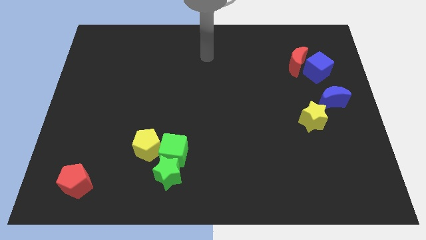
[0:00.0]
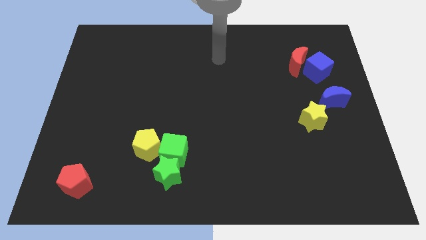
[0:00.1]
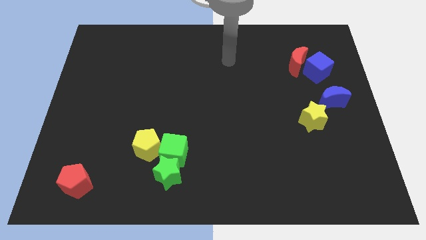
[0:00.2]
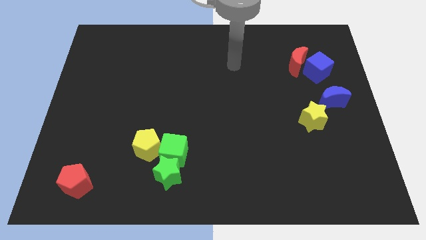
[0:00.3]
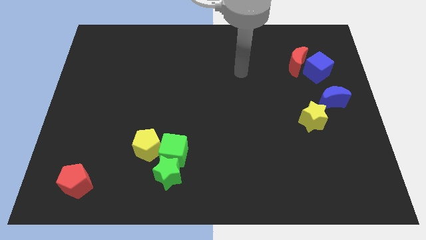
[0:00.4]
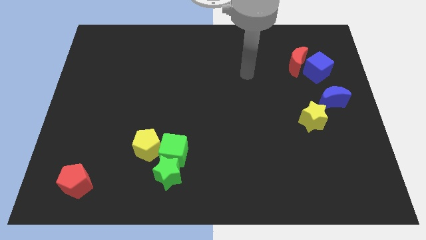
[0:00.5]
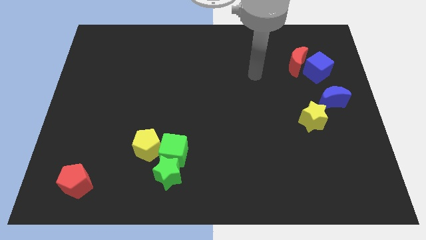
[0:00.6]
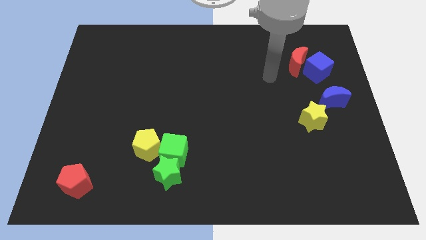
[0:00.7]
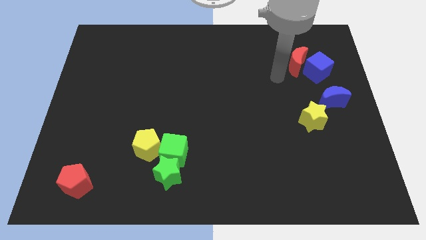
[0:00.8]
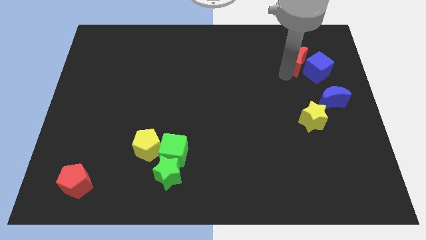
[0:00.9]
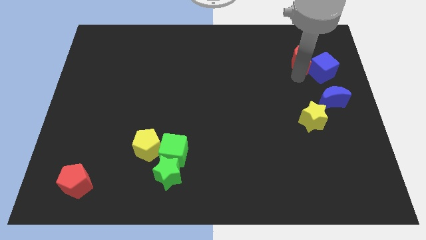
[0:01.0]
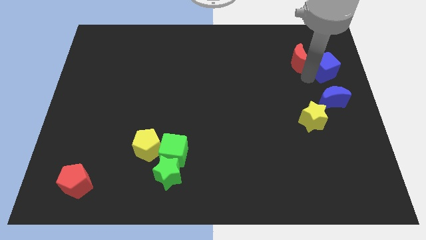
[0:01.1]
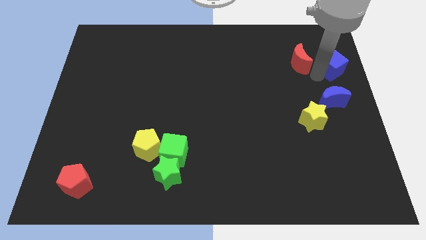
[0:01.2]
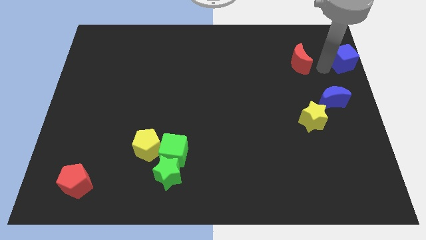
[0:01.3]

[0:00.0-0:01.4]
separate the red moon from the blue cube

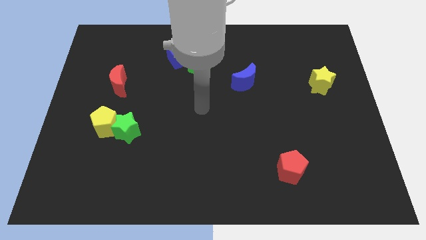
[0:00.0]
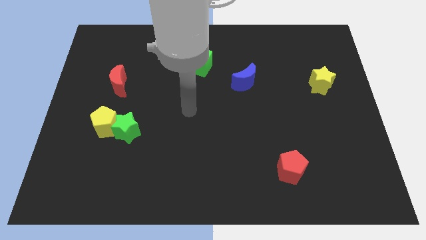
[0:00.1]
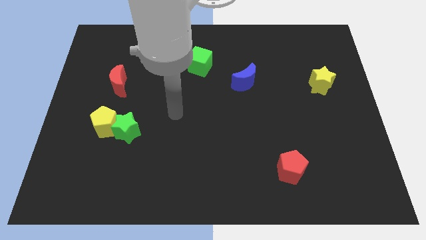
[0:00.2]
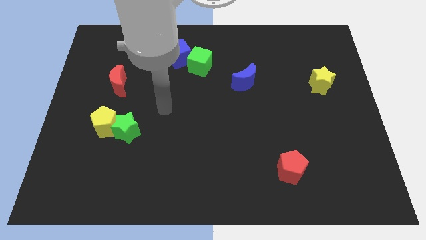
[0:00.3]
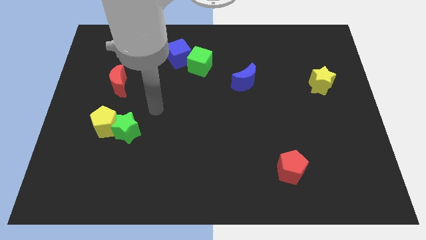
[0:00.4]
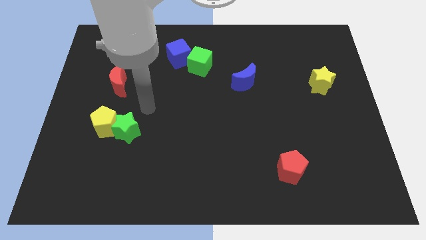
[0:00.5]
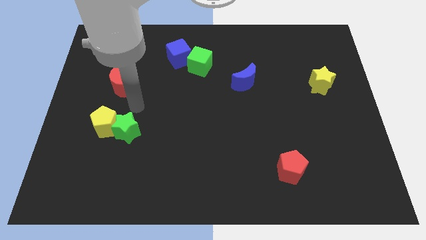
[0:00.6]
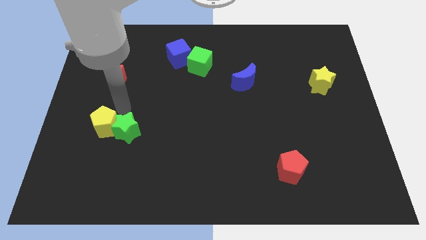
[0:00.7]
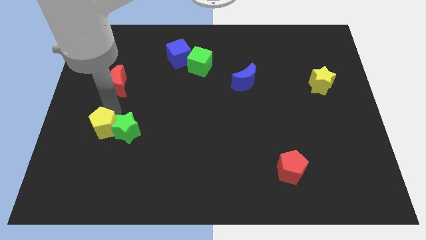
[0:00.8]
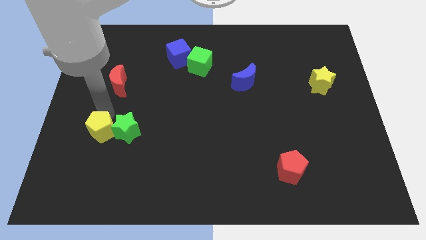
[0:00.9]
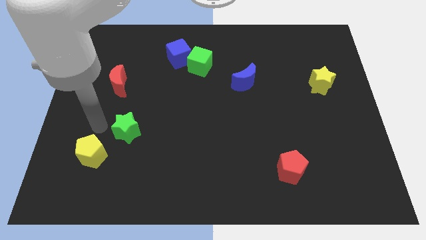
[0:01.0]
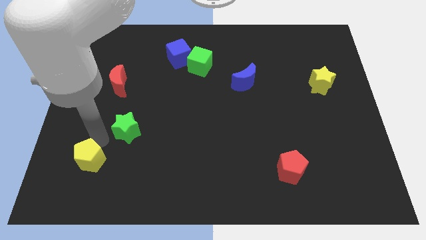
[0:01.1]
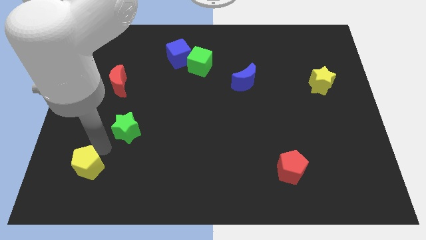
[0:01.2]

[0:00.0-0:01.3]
move the green star away from the yellow pentagon

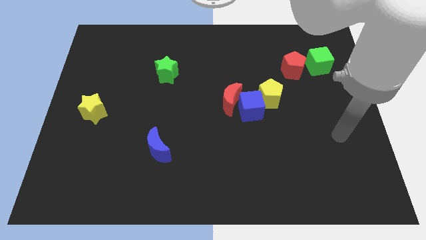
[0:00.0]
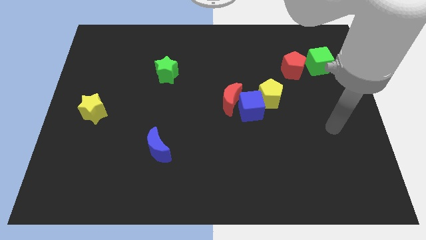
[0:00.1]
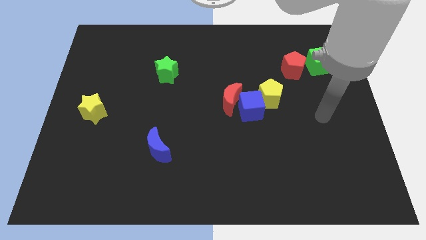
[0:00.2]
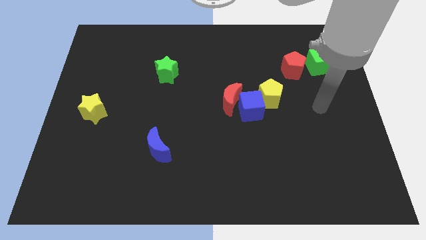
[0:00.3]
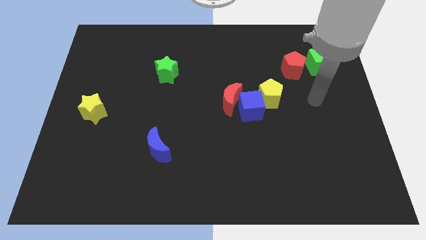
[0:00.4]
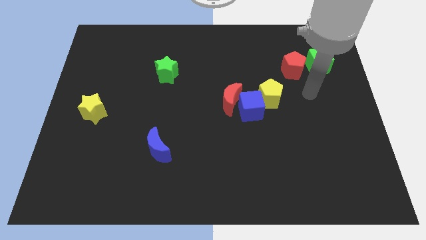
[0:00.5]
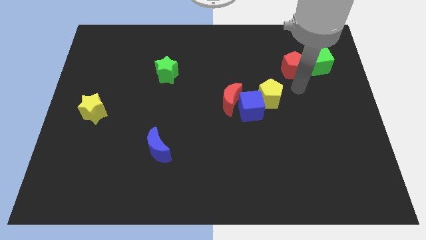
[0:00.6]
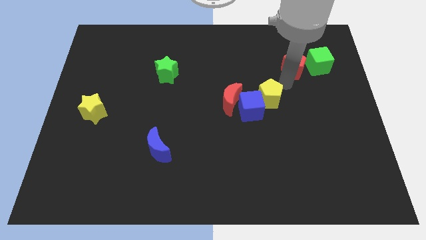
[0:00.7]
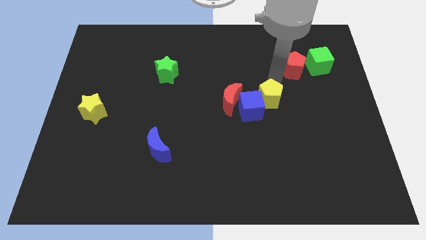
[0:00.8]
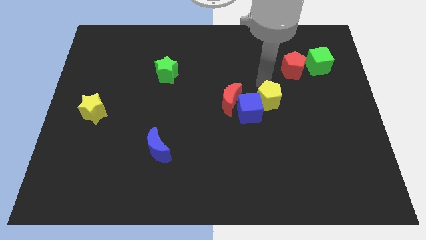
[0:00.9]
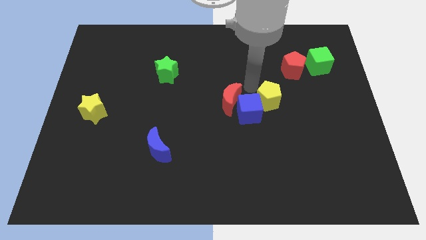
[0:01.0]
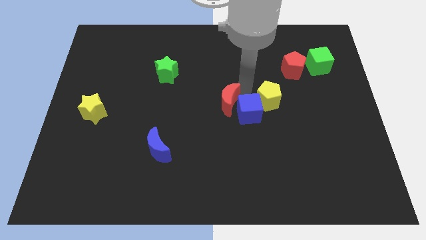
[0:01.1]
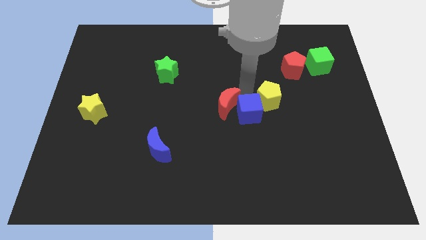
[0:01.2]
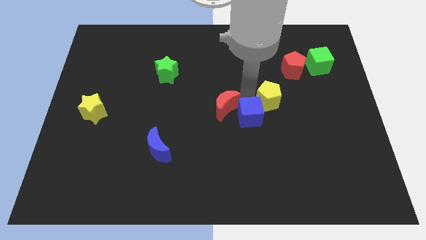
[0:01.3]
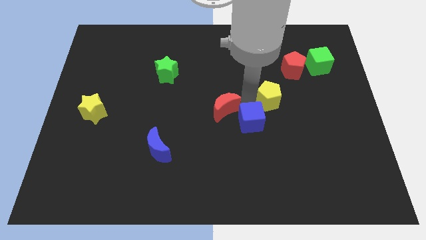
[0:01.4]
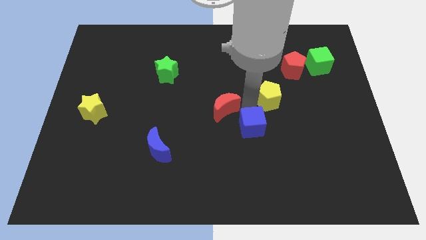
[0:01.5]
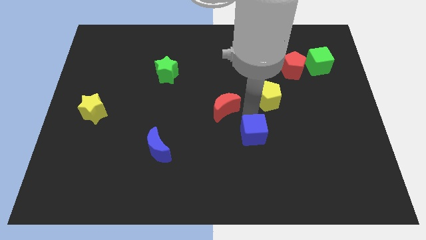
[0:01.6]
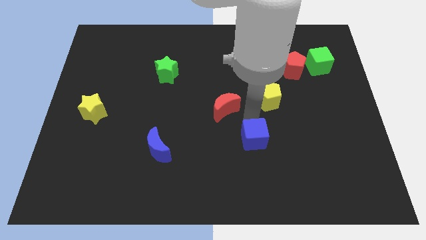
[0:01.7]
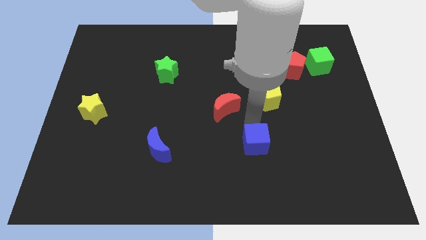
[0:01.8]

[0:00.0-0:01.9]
separate the blue cube from the red moon and yellow pentagon

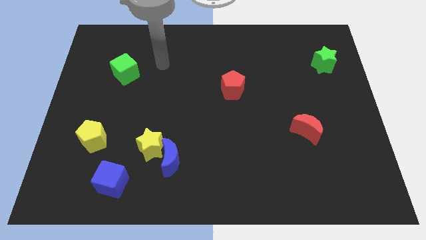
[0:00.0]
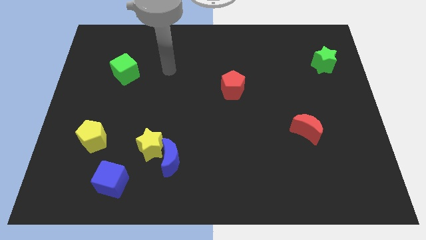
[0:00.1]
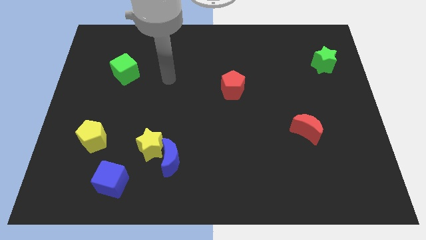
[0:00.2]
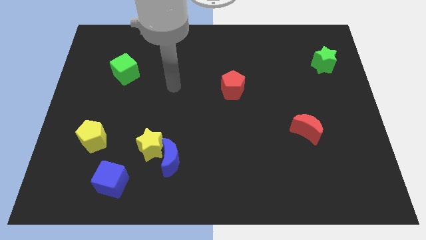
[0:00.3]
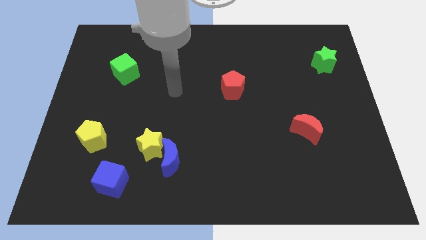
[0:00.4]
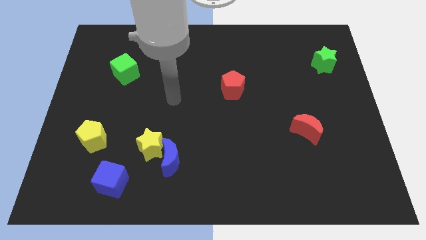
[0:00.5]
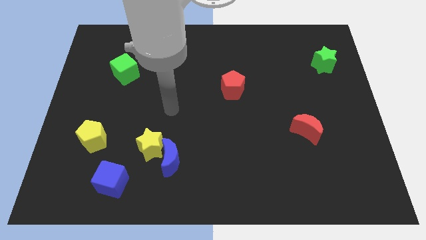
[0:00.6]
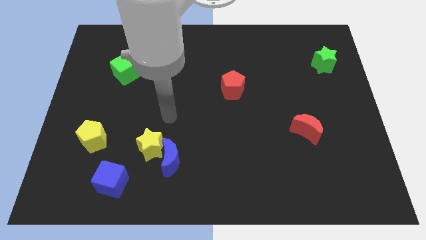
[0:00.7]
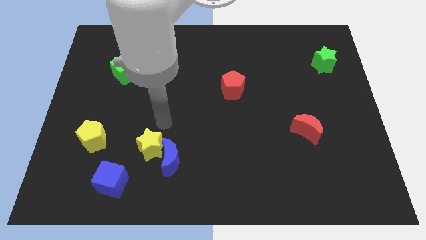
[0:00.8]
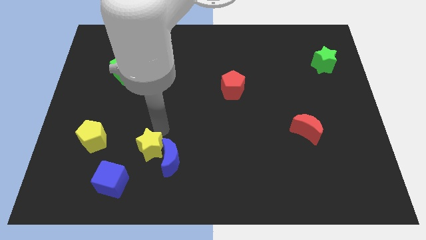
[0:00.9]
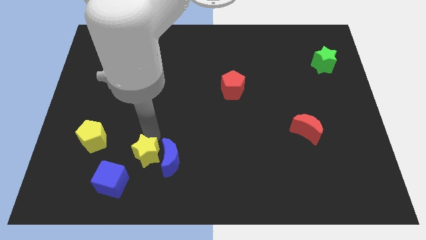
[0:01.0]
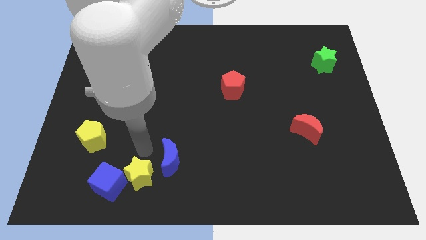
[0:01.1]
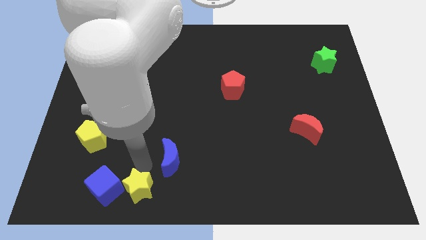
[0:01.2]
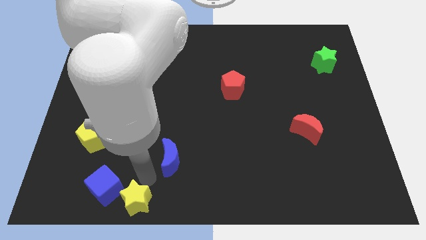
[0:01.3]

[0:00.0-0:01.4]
separate the blue moon from the yellow star

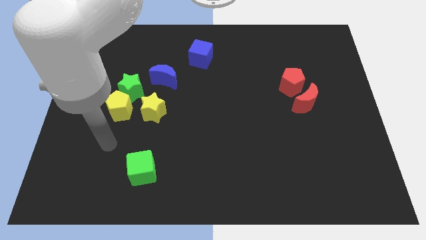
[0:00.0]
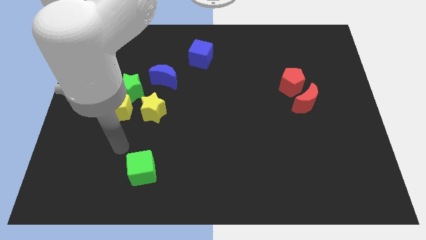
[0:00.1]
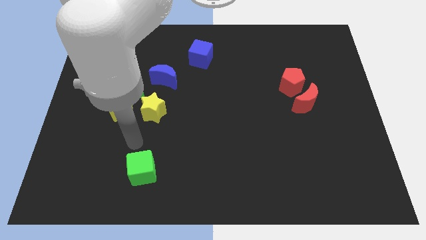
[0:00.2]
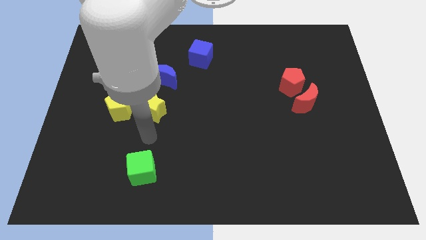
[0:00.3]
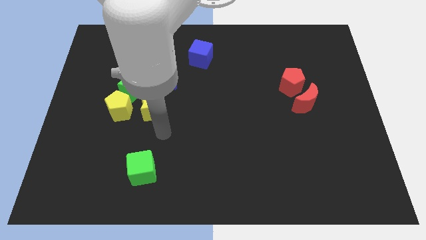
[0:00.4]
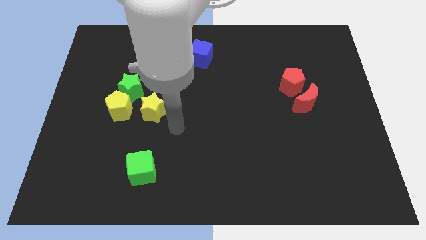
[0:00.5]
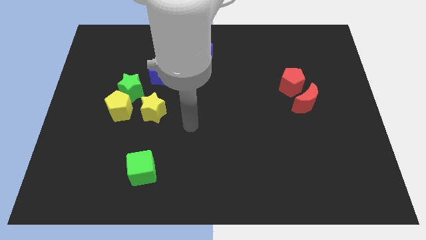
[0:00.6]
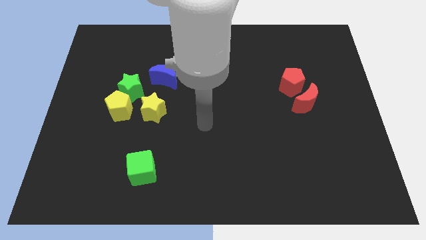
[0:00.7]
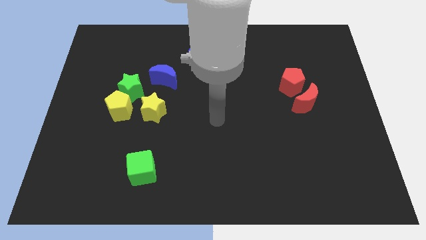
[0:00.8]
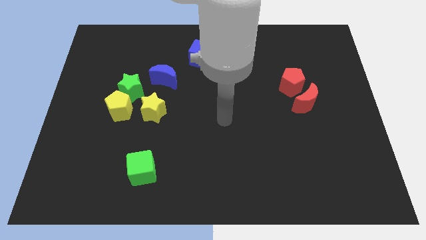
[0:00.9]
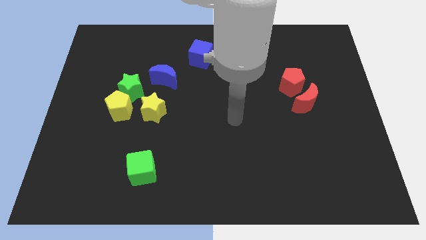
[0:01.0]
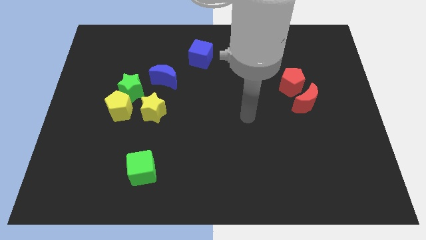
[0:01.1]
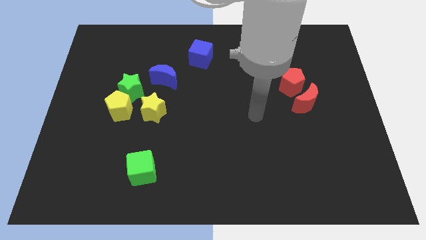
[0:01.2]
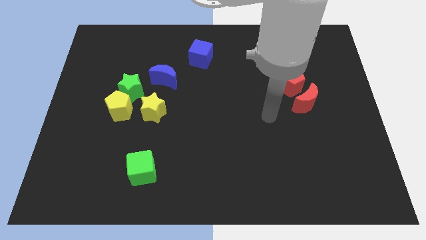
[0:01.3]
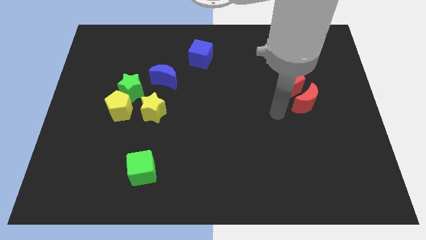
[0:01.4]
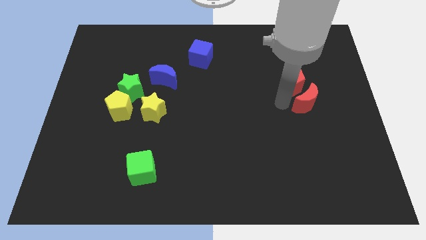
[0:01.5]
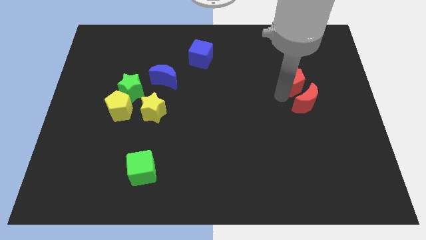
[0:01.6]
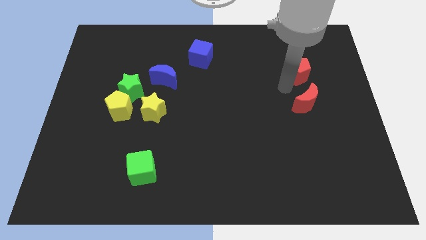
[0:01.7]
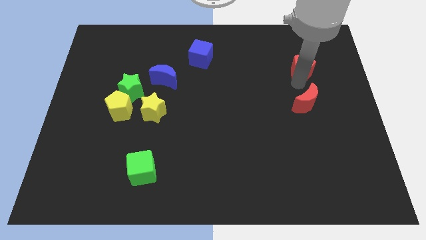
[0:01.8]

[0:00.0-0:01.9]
separate the red moon from the red pentagon

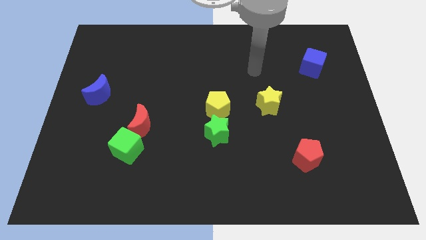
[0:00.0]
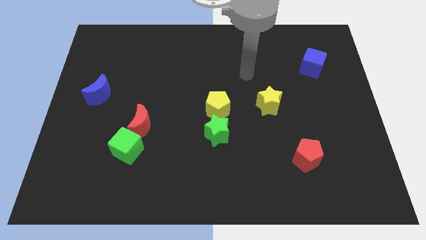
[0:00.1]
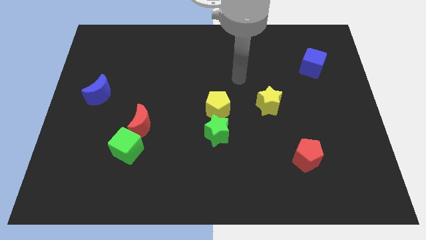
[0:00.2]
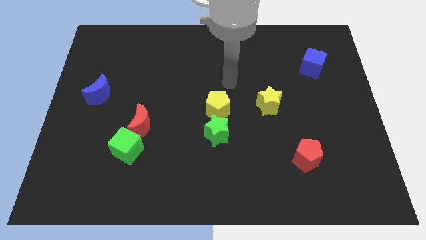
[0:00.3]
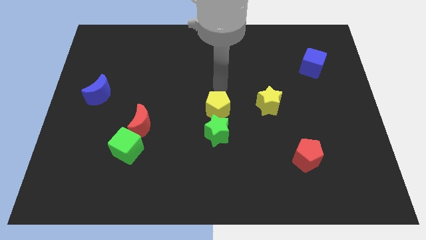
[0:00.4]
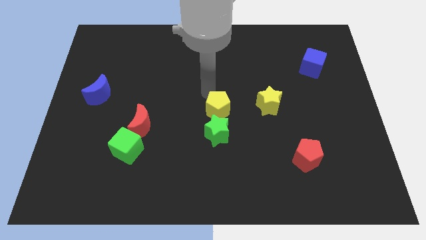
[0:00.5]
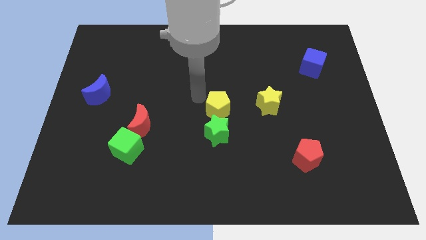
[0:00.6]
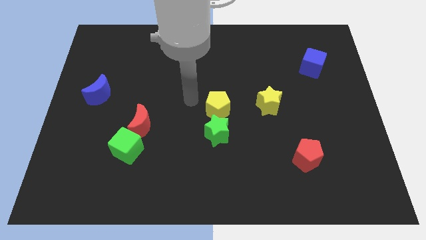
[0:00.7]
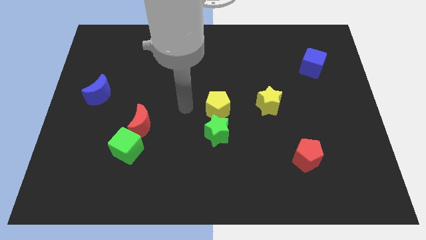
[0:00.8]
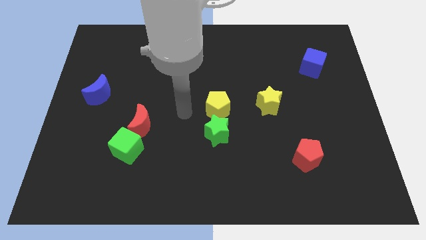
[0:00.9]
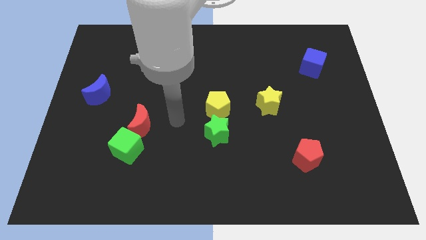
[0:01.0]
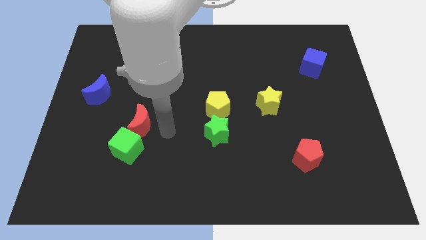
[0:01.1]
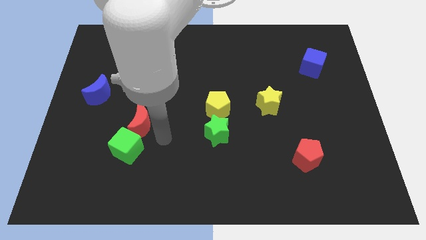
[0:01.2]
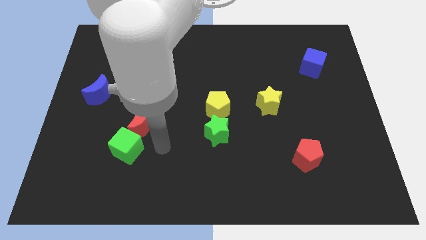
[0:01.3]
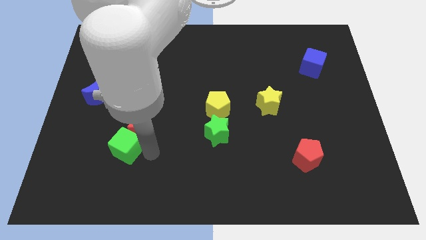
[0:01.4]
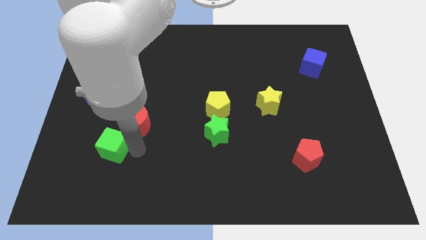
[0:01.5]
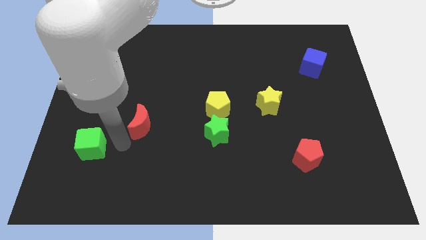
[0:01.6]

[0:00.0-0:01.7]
pull the red moon apart from the green cube
